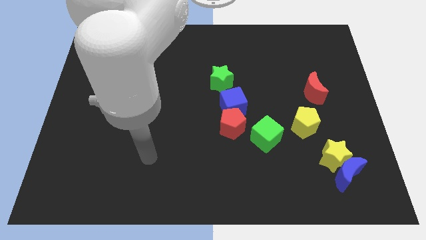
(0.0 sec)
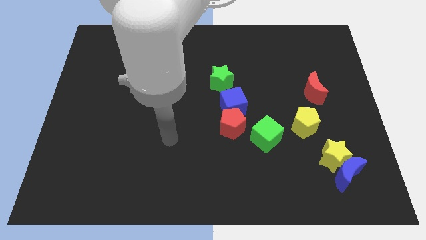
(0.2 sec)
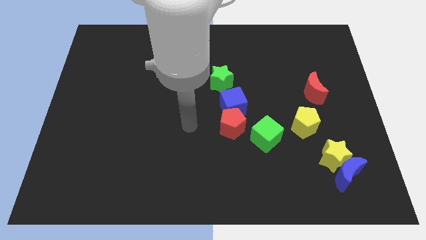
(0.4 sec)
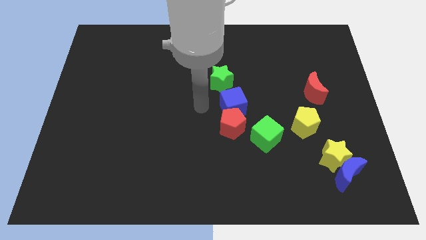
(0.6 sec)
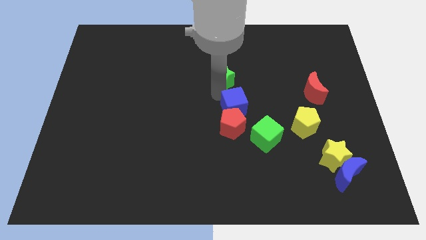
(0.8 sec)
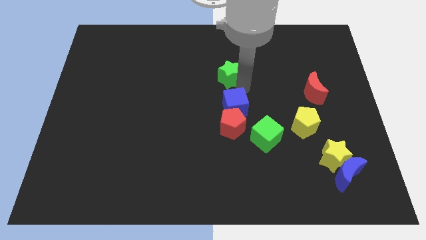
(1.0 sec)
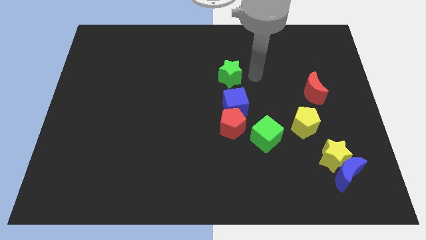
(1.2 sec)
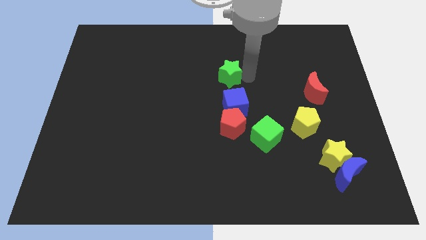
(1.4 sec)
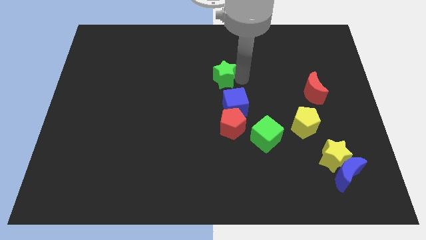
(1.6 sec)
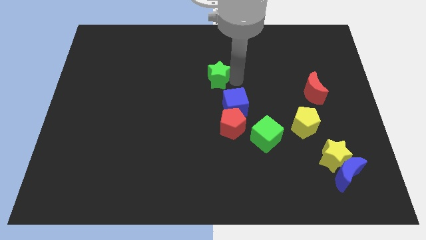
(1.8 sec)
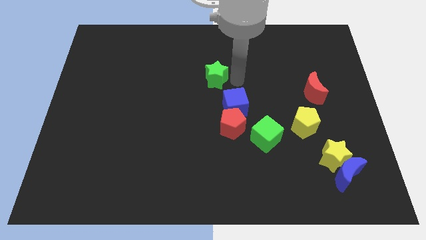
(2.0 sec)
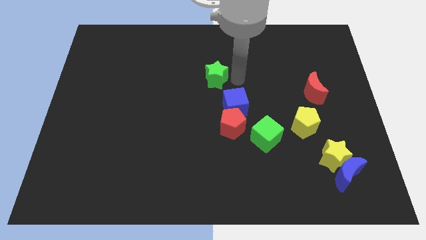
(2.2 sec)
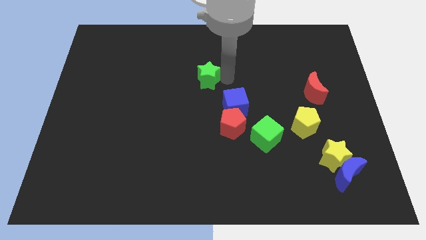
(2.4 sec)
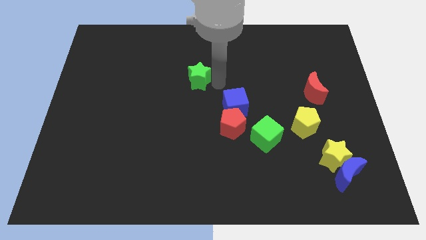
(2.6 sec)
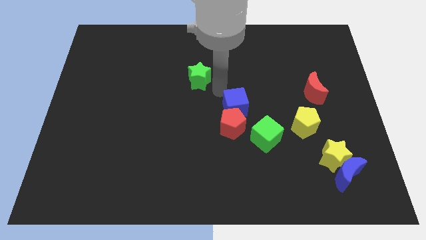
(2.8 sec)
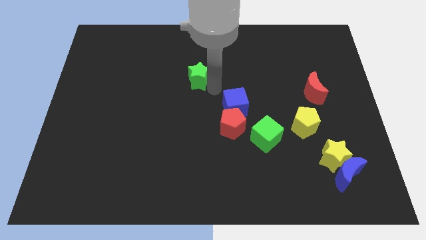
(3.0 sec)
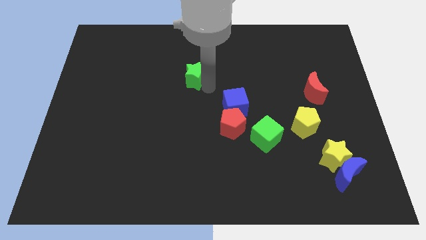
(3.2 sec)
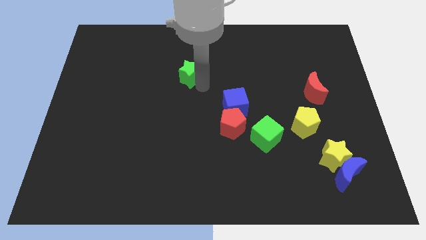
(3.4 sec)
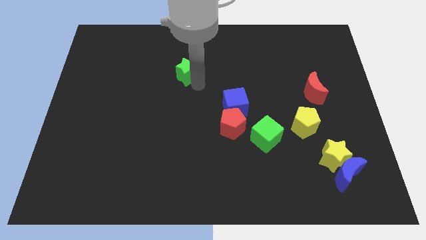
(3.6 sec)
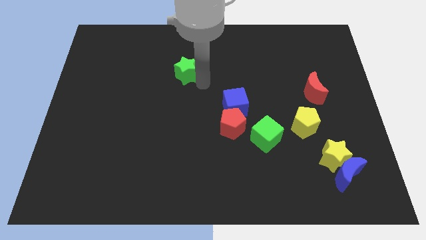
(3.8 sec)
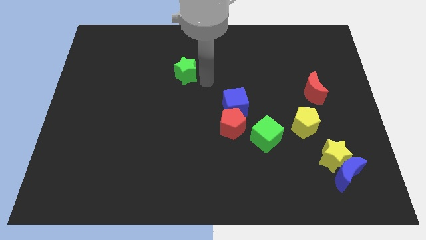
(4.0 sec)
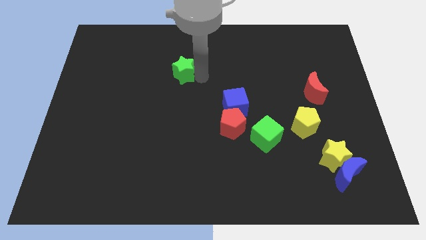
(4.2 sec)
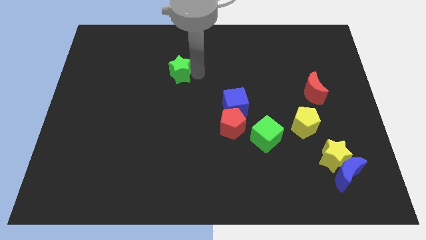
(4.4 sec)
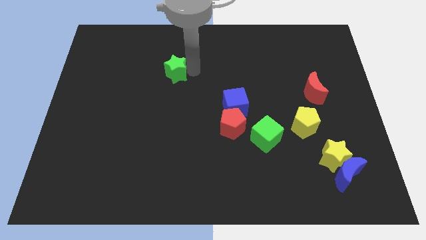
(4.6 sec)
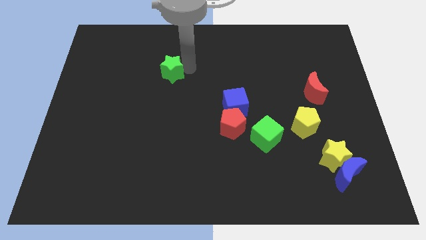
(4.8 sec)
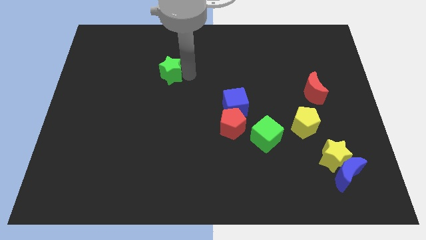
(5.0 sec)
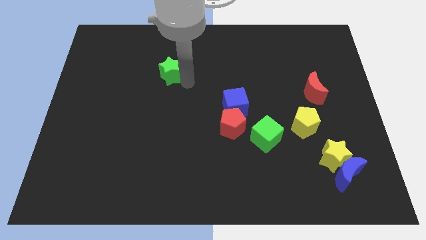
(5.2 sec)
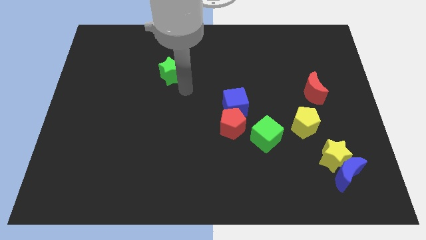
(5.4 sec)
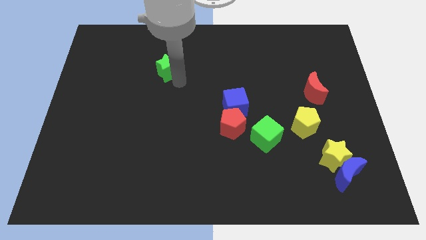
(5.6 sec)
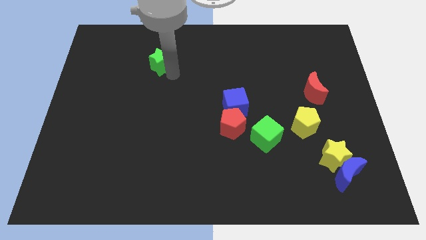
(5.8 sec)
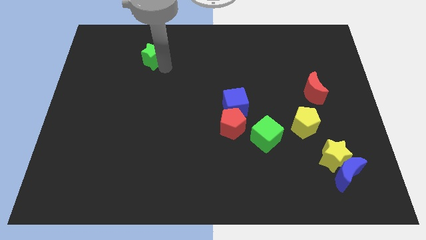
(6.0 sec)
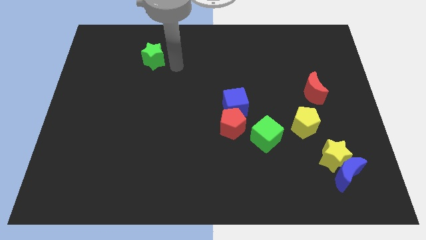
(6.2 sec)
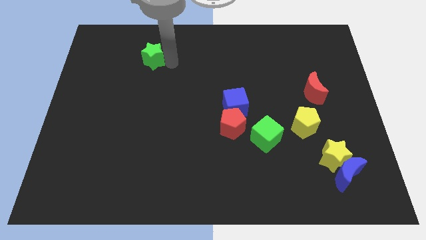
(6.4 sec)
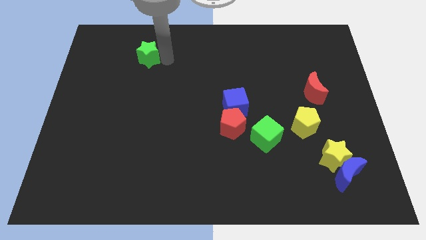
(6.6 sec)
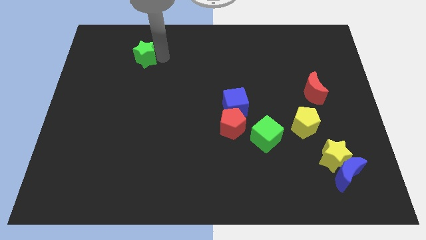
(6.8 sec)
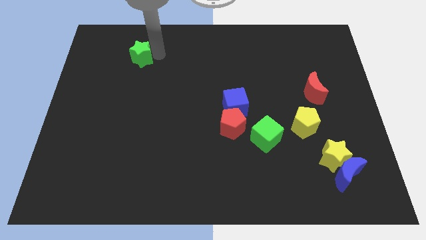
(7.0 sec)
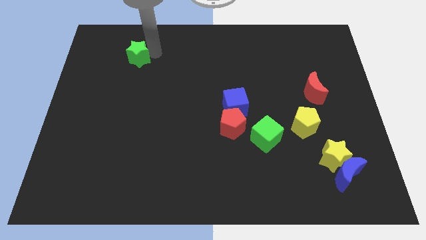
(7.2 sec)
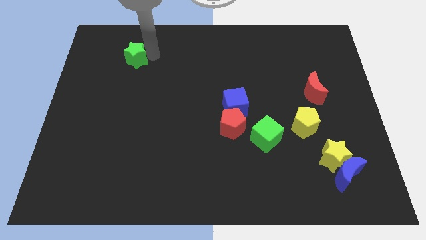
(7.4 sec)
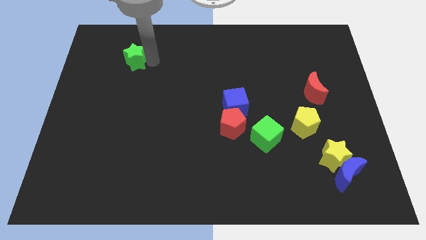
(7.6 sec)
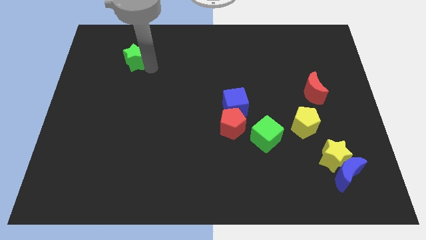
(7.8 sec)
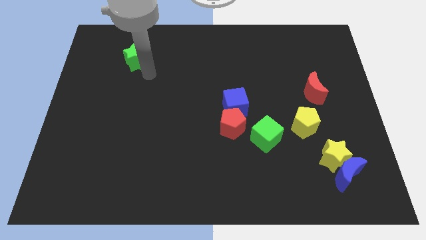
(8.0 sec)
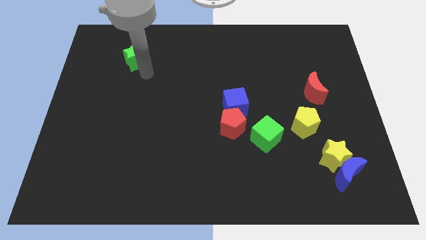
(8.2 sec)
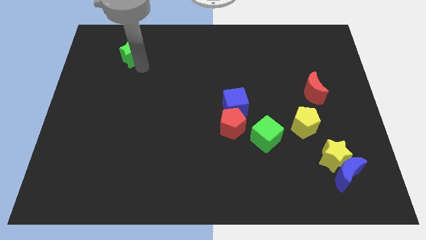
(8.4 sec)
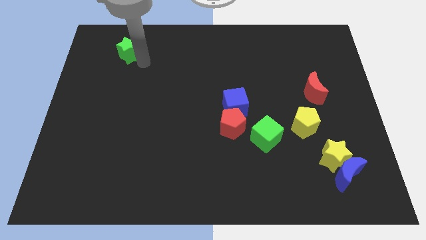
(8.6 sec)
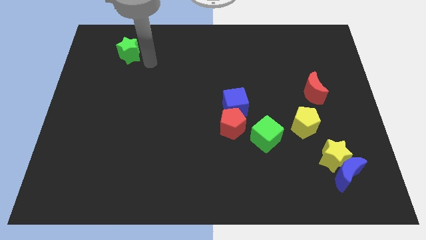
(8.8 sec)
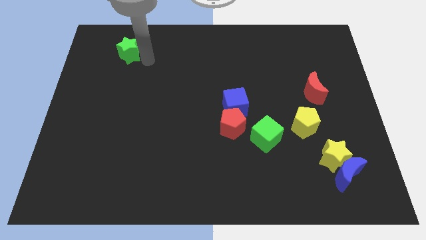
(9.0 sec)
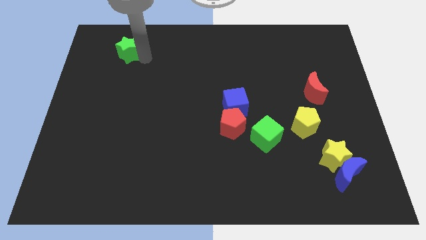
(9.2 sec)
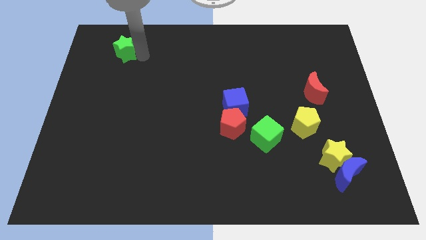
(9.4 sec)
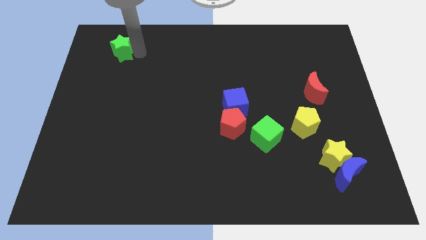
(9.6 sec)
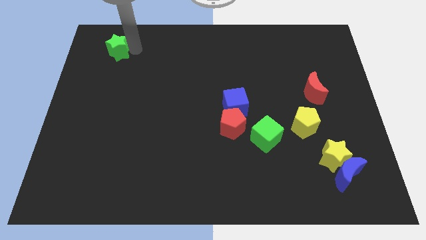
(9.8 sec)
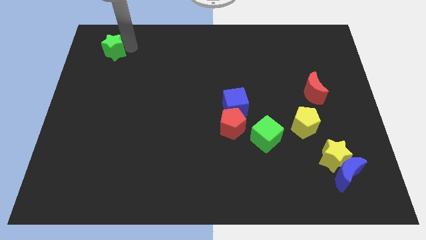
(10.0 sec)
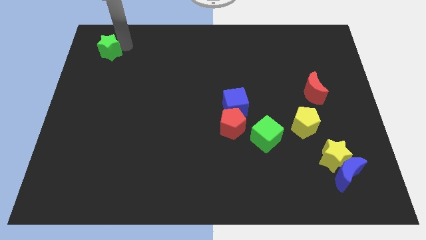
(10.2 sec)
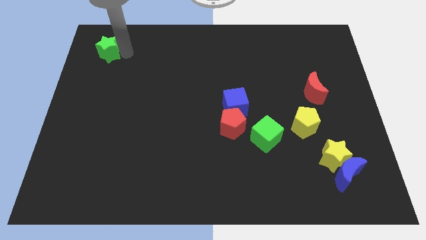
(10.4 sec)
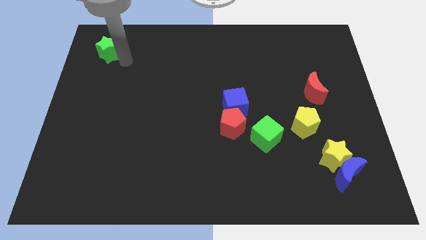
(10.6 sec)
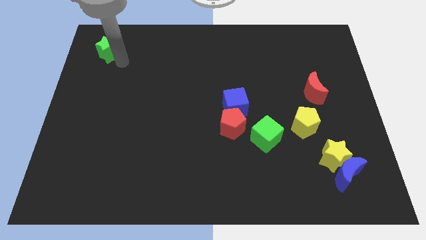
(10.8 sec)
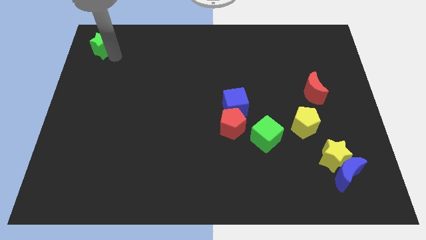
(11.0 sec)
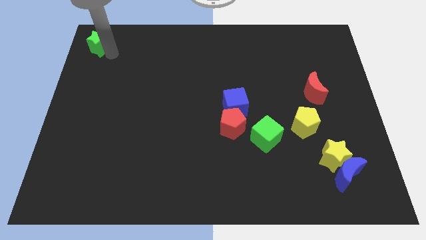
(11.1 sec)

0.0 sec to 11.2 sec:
slide the green star to the top left of the board
